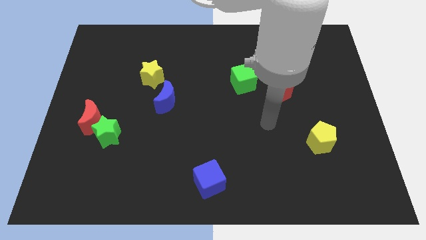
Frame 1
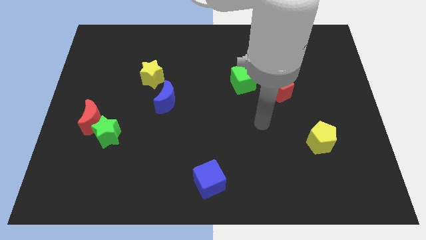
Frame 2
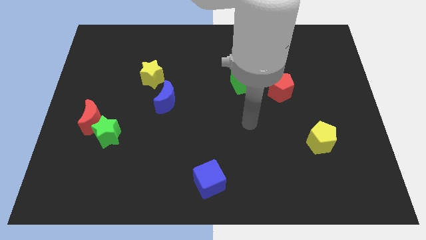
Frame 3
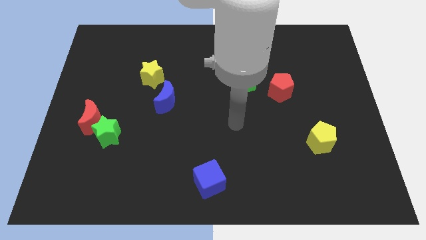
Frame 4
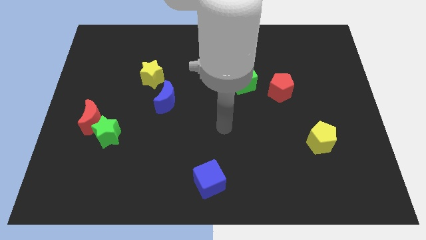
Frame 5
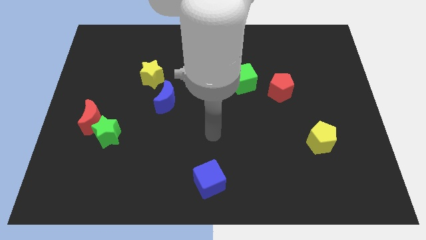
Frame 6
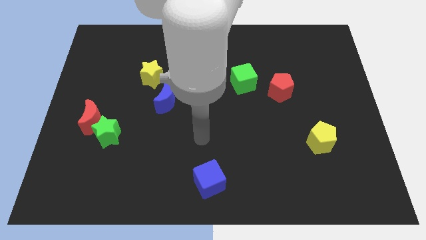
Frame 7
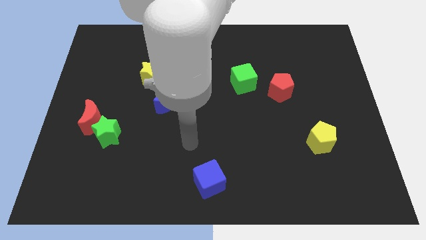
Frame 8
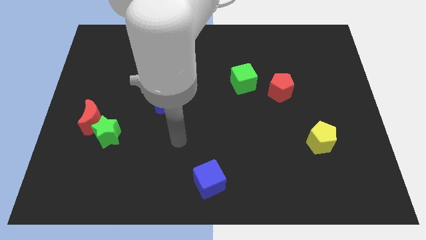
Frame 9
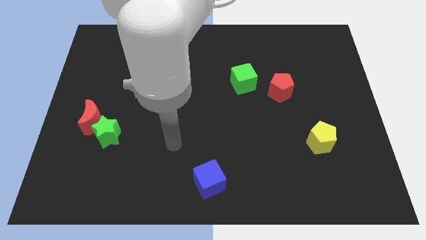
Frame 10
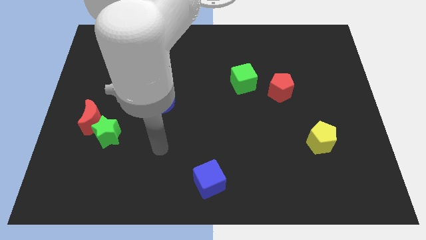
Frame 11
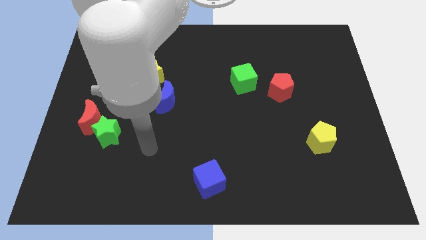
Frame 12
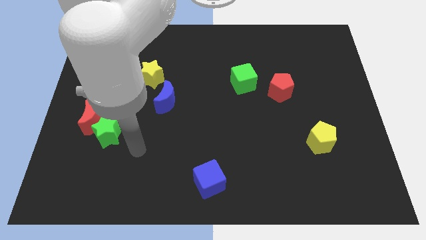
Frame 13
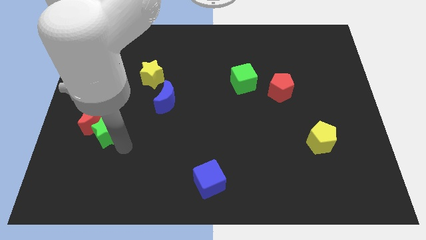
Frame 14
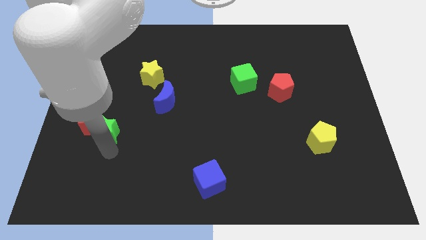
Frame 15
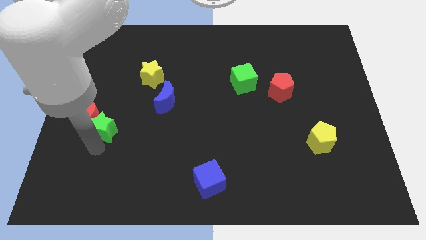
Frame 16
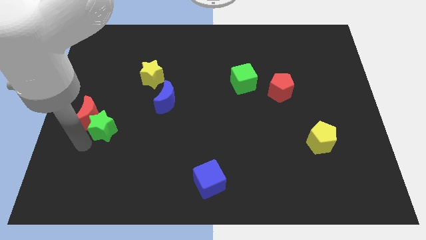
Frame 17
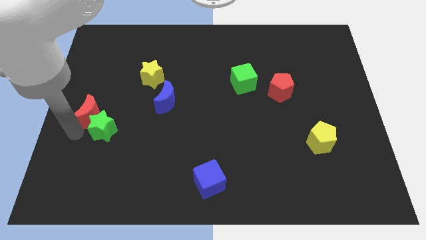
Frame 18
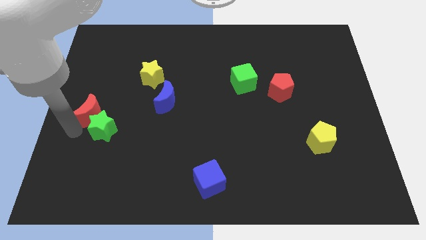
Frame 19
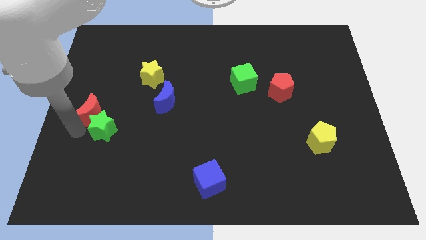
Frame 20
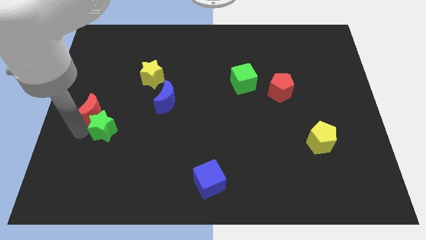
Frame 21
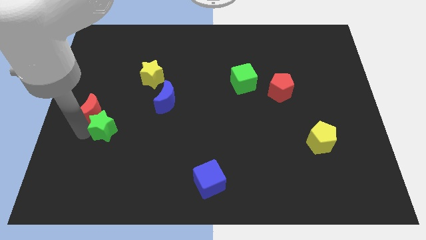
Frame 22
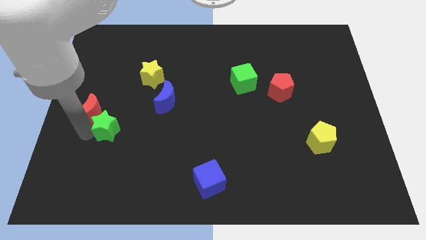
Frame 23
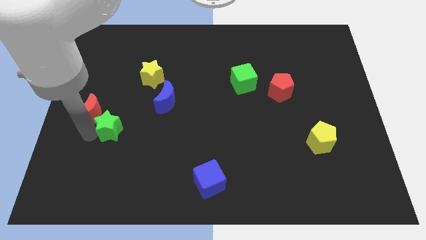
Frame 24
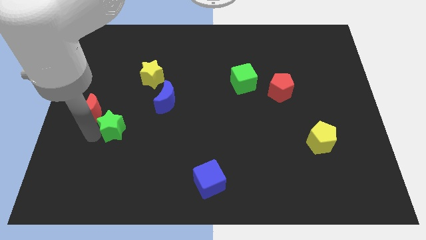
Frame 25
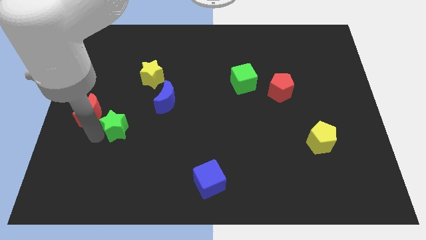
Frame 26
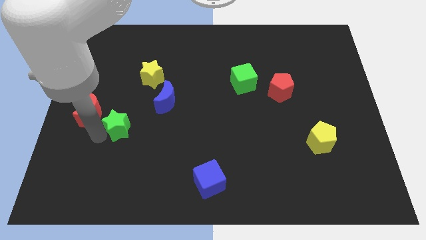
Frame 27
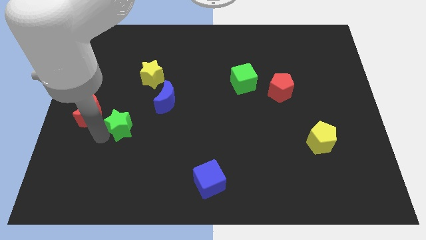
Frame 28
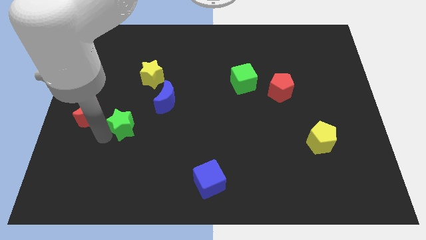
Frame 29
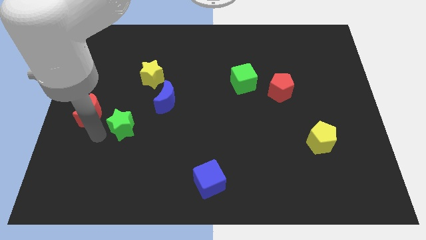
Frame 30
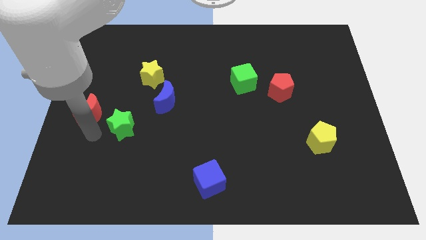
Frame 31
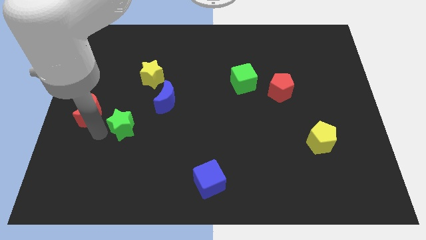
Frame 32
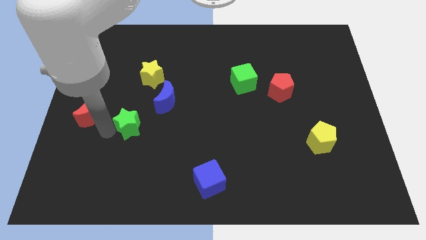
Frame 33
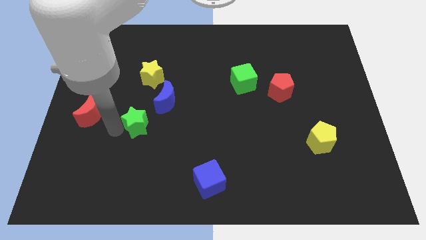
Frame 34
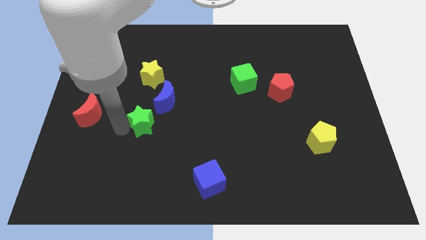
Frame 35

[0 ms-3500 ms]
move the green star somewhat up and right diagonally

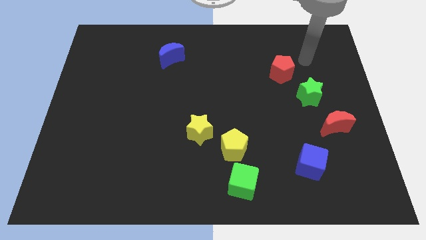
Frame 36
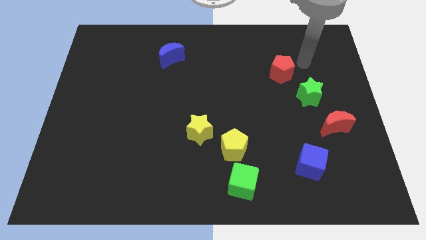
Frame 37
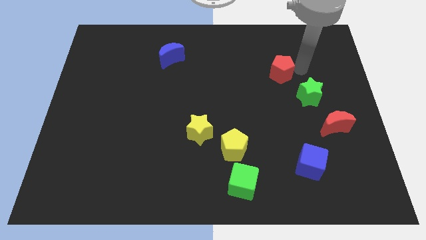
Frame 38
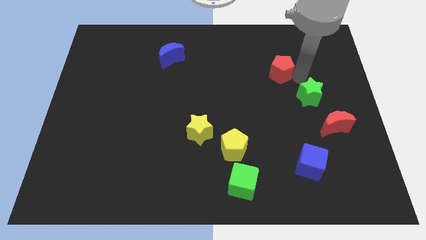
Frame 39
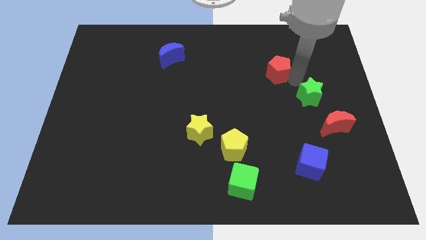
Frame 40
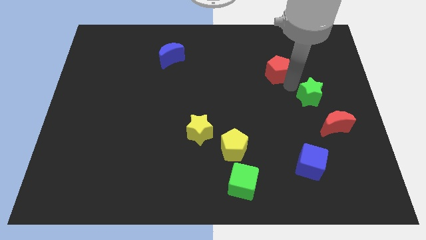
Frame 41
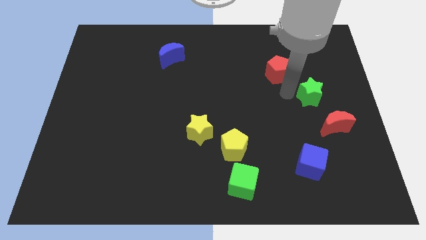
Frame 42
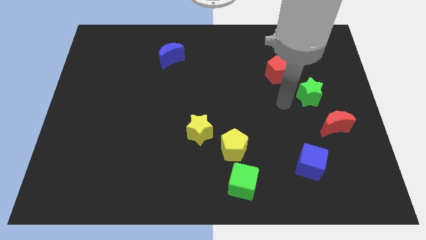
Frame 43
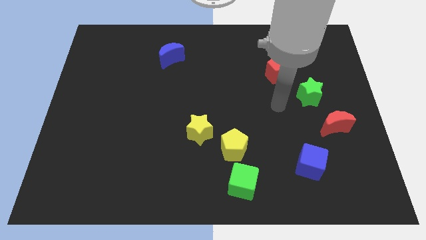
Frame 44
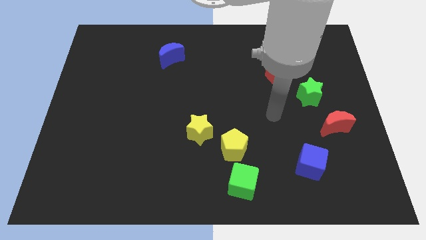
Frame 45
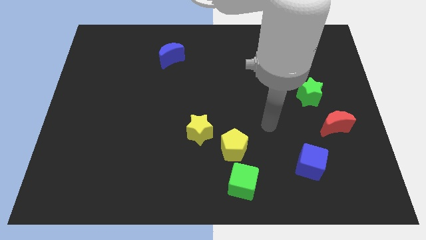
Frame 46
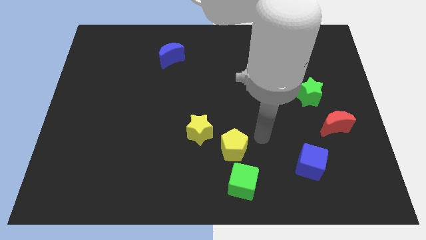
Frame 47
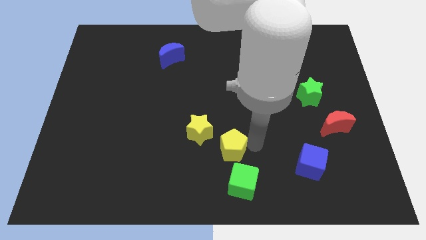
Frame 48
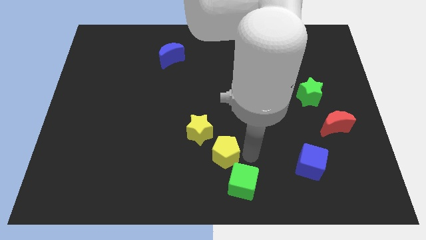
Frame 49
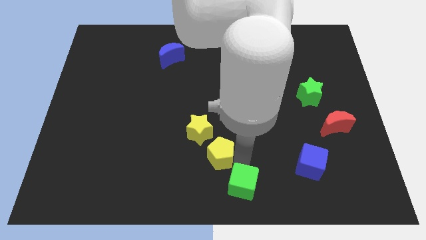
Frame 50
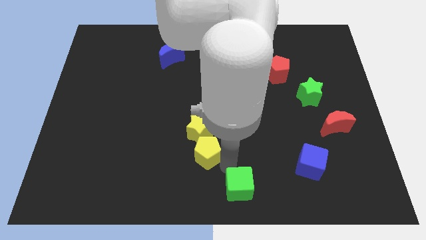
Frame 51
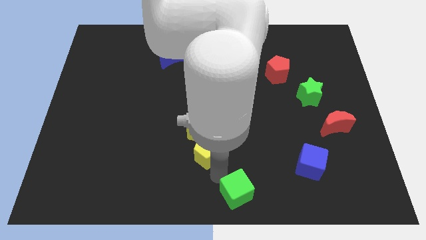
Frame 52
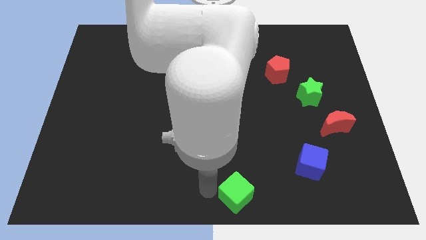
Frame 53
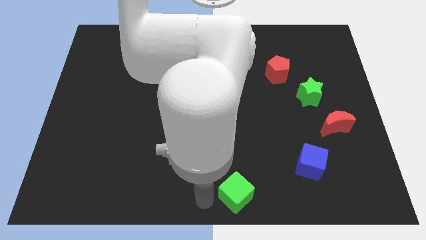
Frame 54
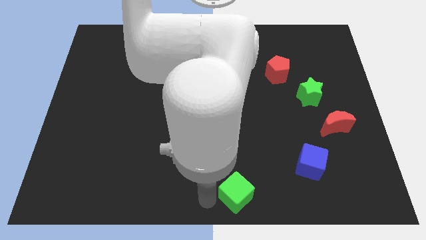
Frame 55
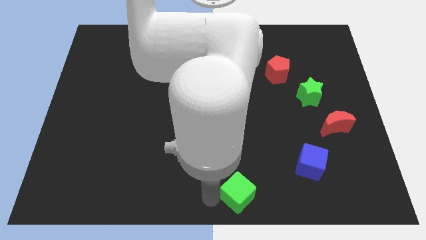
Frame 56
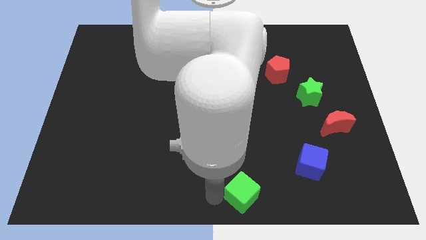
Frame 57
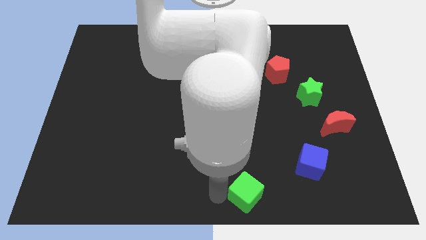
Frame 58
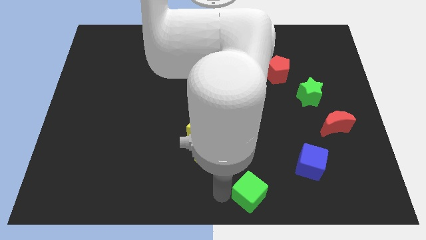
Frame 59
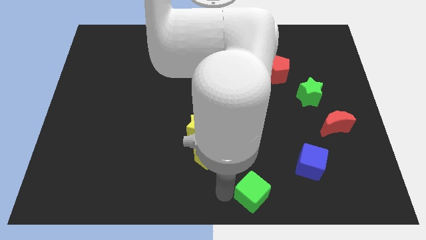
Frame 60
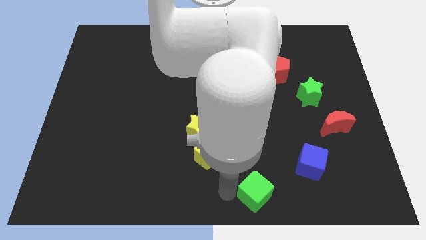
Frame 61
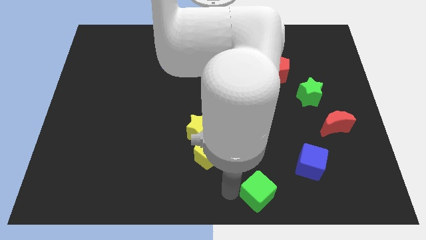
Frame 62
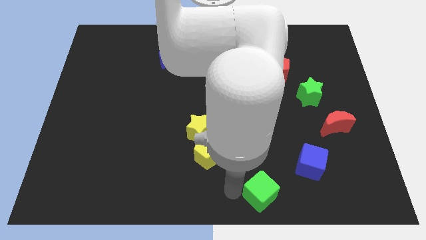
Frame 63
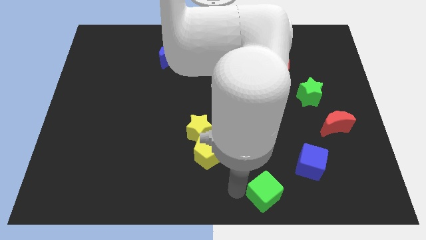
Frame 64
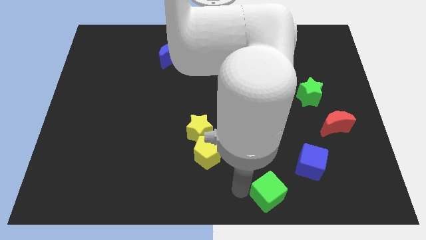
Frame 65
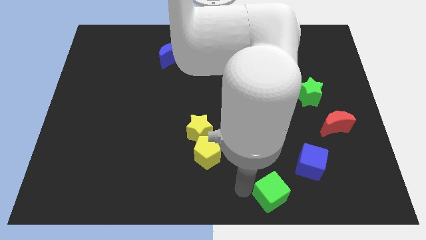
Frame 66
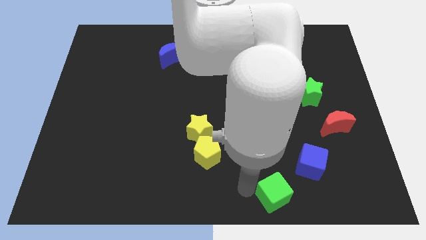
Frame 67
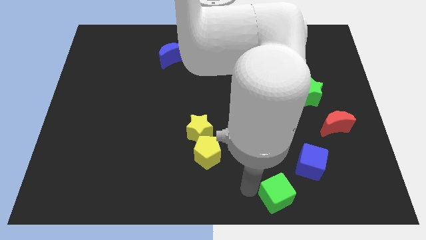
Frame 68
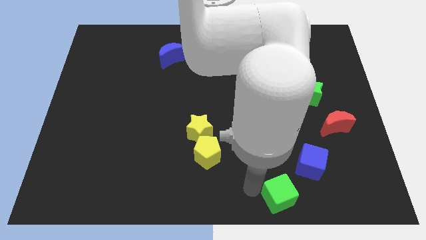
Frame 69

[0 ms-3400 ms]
move the green cube to the right somewhat

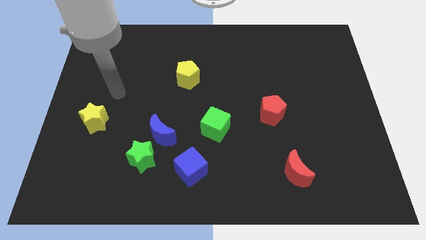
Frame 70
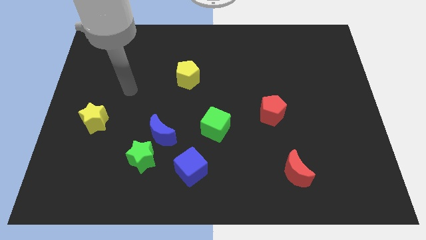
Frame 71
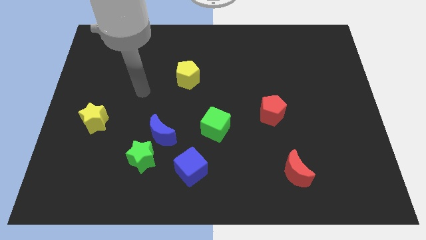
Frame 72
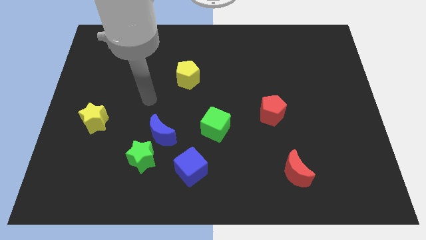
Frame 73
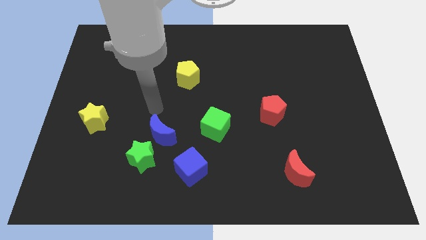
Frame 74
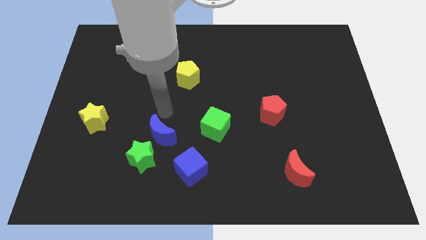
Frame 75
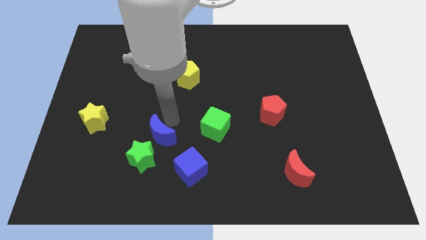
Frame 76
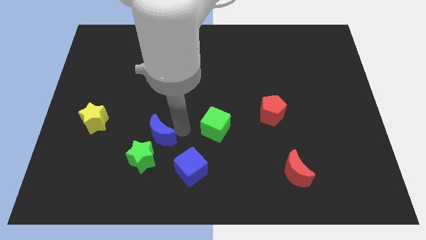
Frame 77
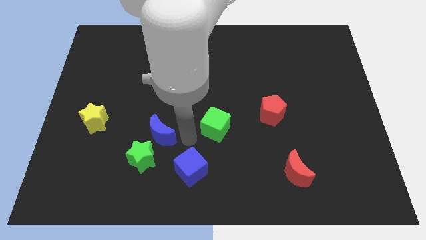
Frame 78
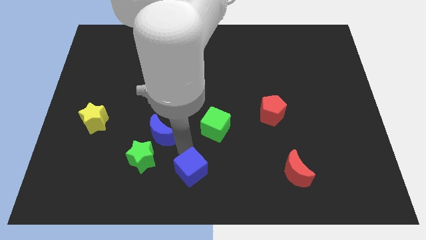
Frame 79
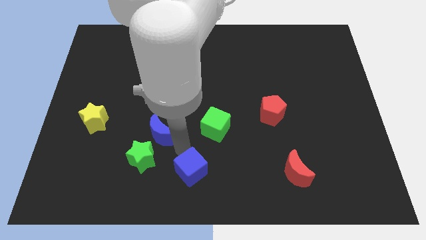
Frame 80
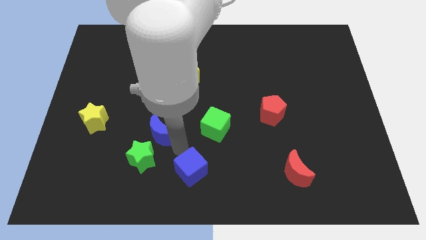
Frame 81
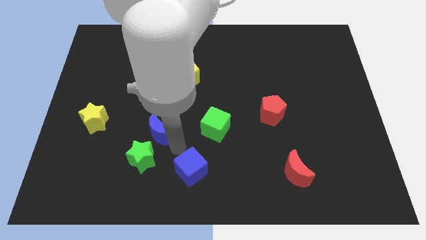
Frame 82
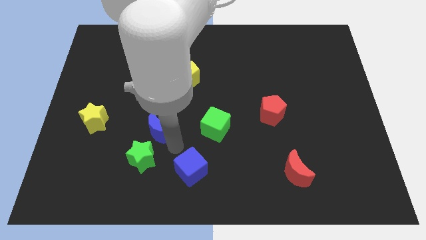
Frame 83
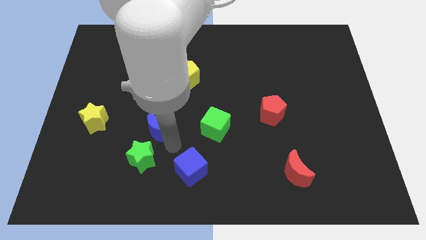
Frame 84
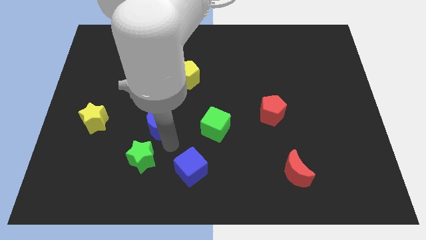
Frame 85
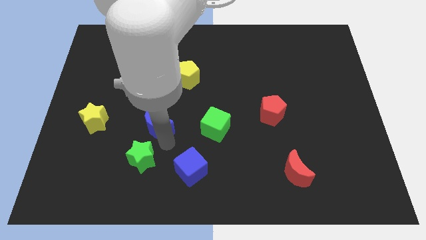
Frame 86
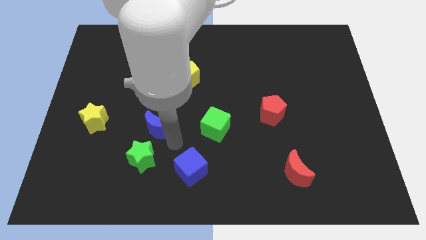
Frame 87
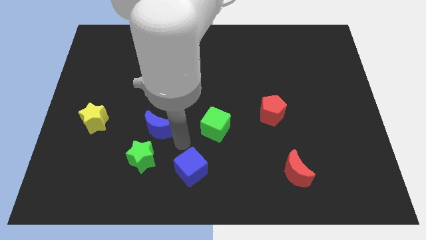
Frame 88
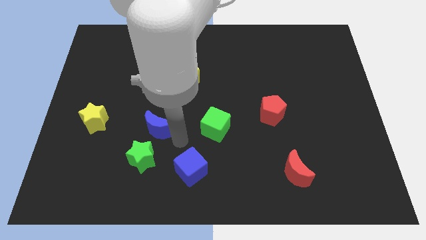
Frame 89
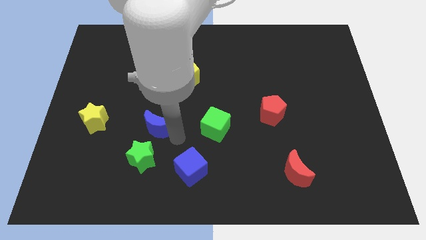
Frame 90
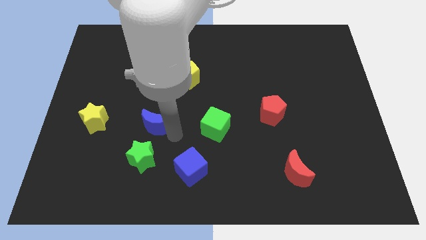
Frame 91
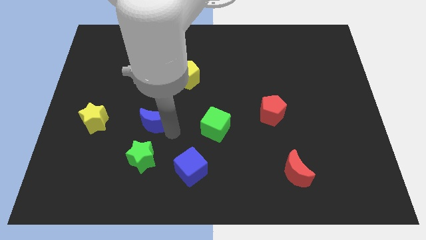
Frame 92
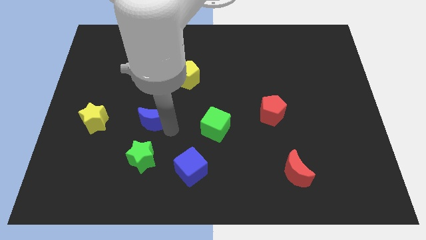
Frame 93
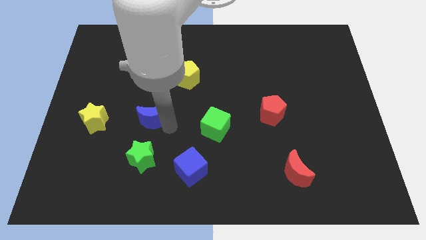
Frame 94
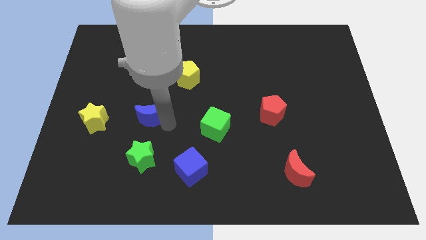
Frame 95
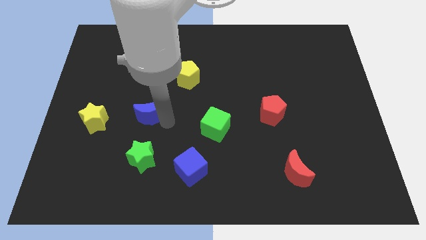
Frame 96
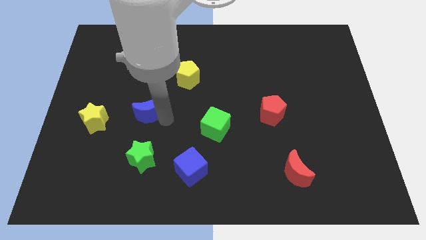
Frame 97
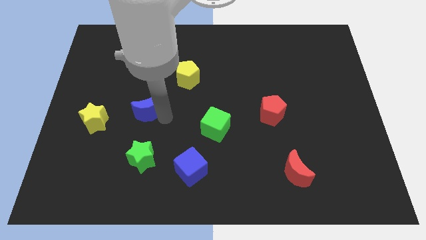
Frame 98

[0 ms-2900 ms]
move the blue moon a bit diagonally upwards and left
